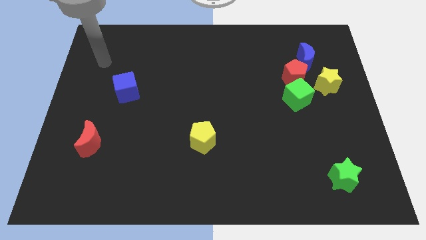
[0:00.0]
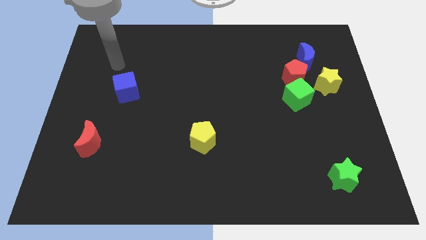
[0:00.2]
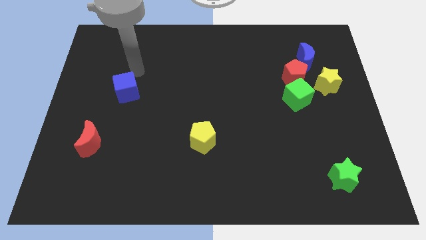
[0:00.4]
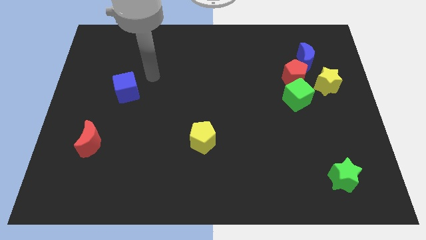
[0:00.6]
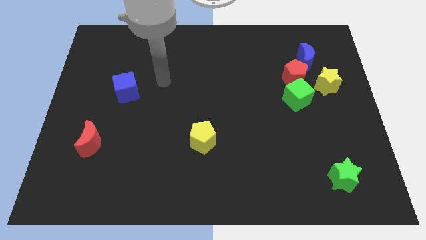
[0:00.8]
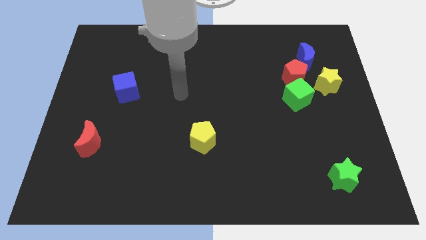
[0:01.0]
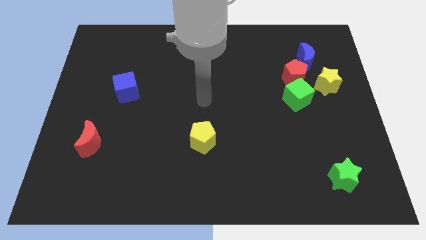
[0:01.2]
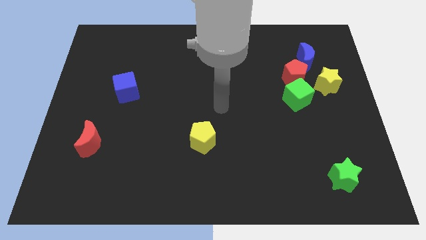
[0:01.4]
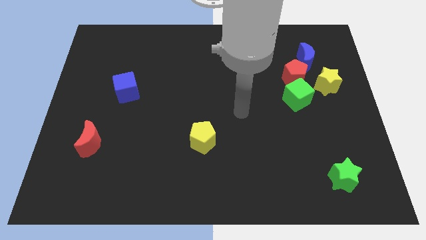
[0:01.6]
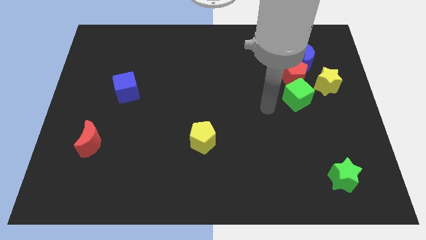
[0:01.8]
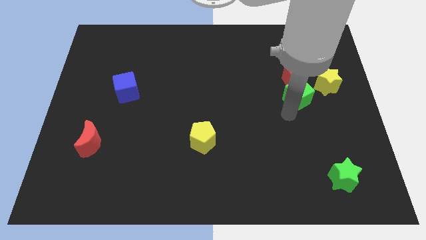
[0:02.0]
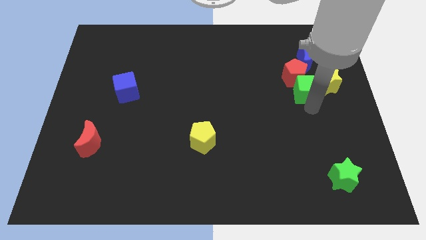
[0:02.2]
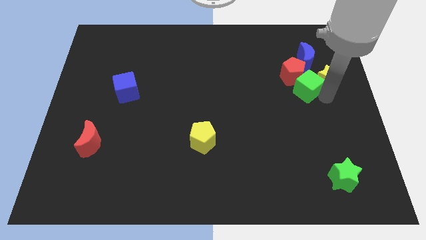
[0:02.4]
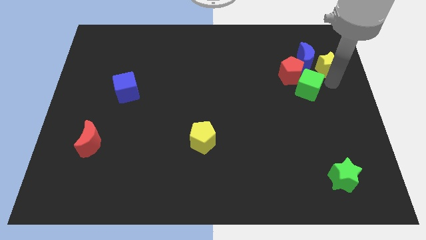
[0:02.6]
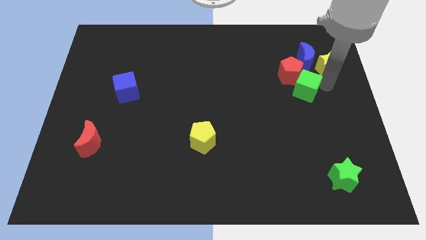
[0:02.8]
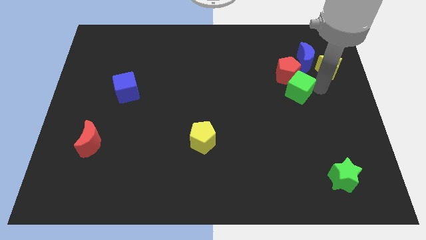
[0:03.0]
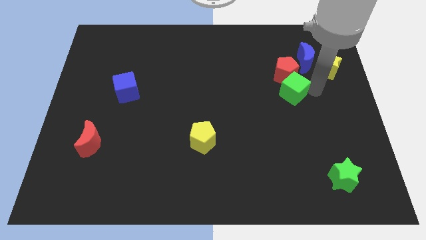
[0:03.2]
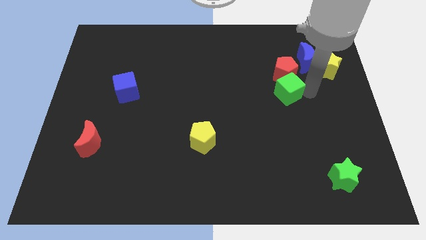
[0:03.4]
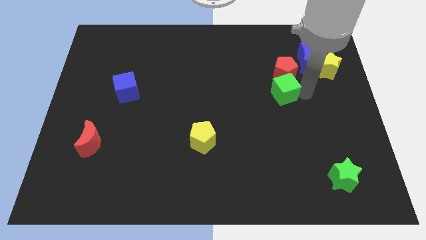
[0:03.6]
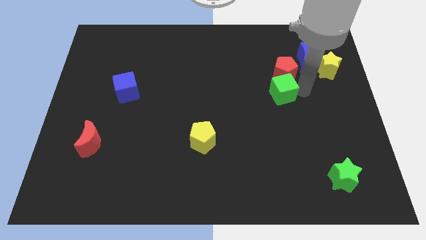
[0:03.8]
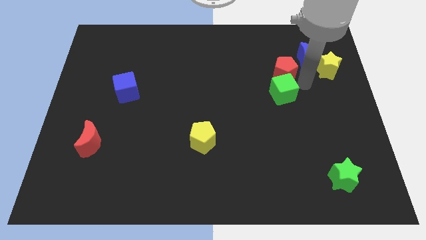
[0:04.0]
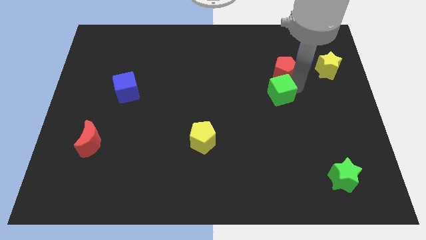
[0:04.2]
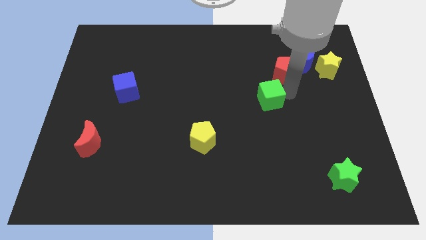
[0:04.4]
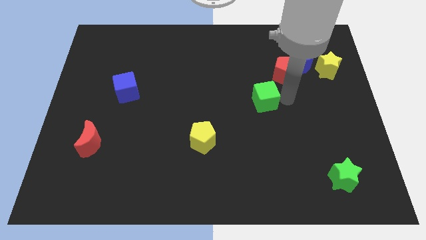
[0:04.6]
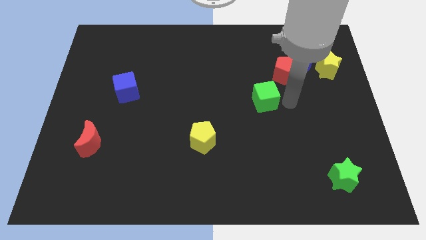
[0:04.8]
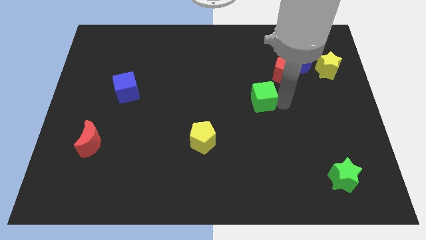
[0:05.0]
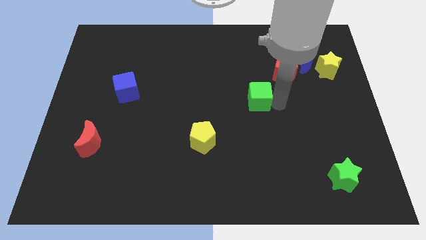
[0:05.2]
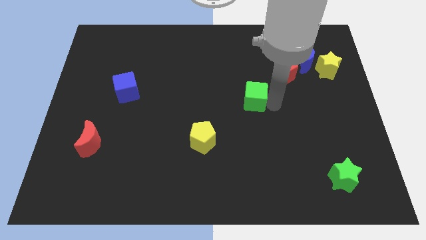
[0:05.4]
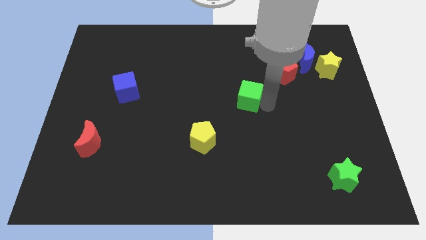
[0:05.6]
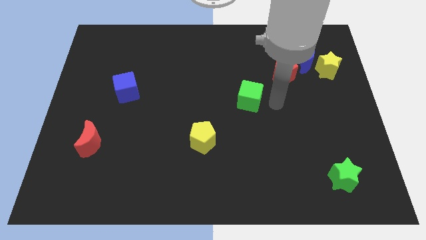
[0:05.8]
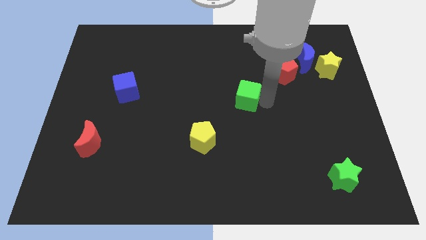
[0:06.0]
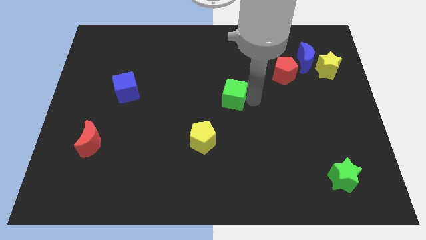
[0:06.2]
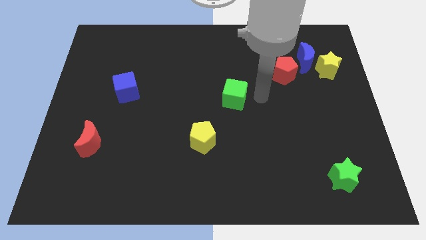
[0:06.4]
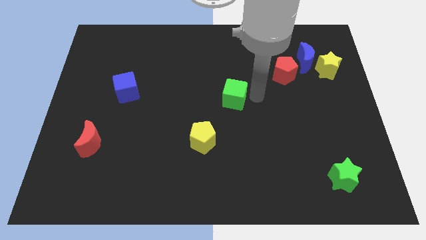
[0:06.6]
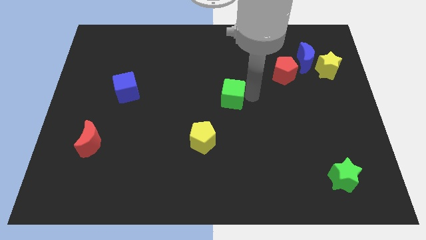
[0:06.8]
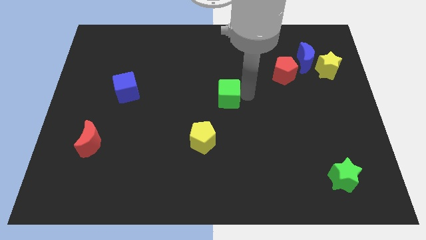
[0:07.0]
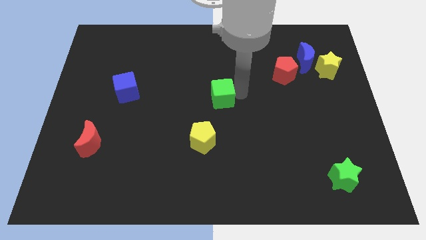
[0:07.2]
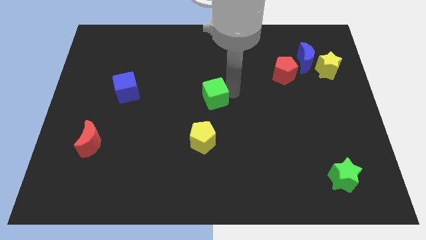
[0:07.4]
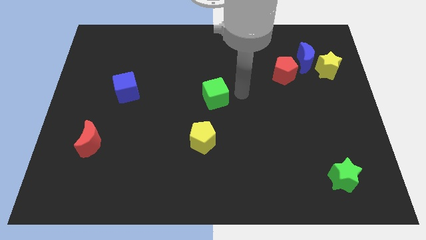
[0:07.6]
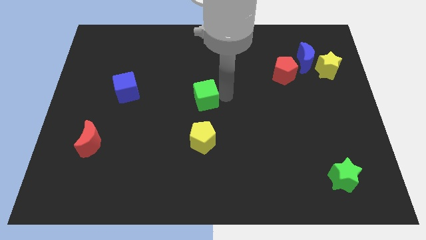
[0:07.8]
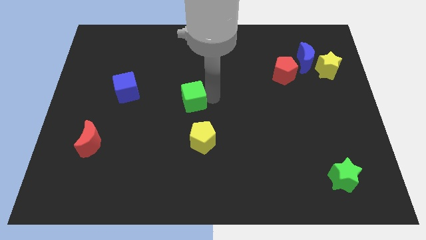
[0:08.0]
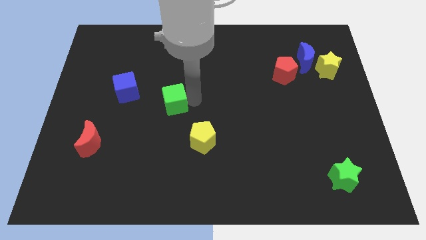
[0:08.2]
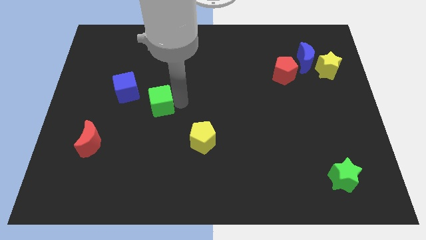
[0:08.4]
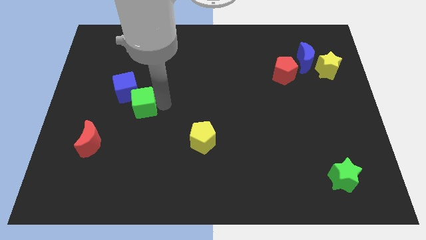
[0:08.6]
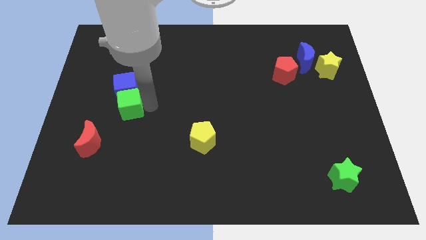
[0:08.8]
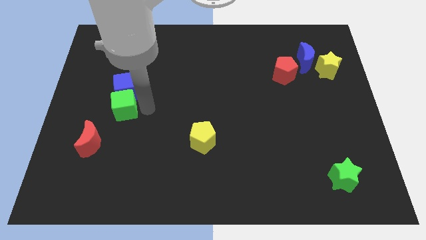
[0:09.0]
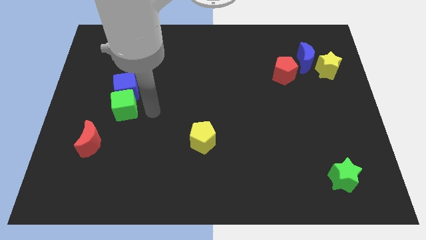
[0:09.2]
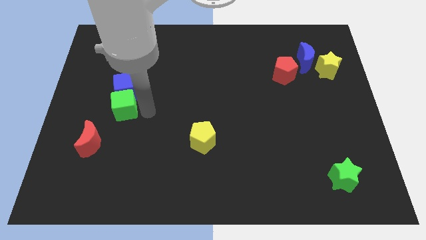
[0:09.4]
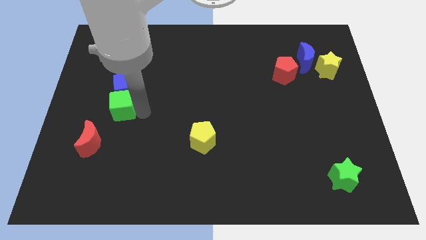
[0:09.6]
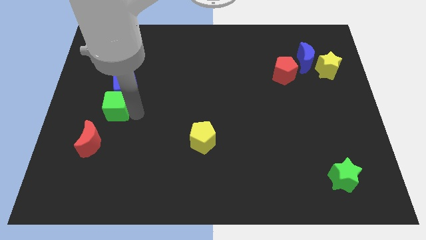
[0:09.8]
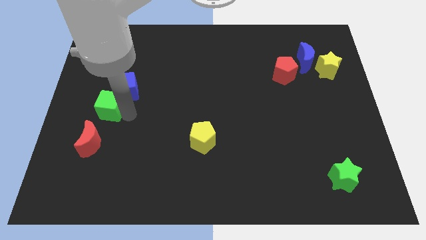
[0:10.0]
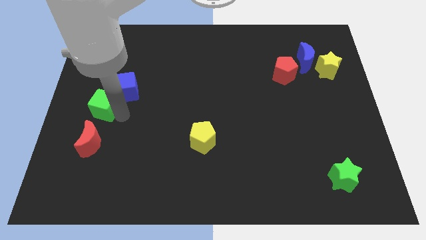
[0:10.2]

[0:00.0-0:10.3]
put the green cube to the left side
